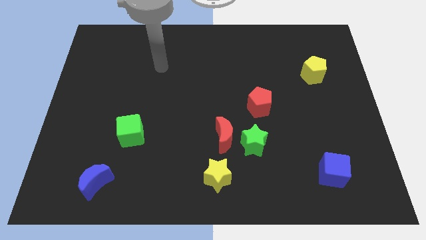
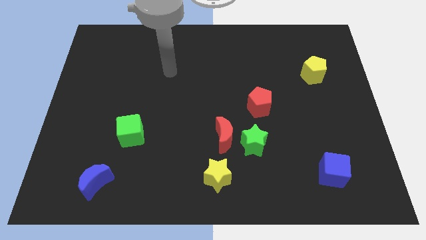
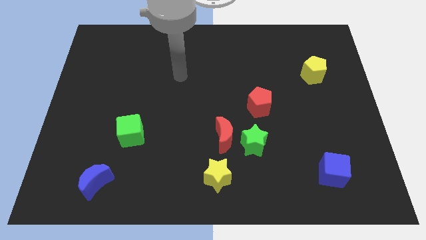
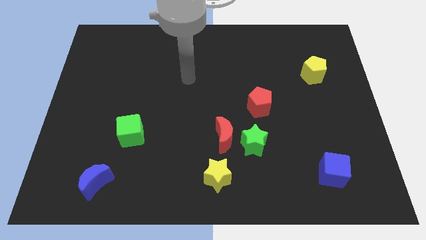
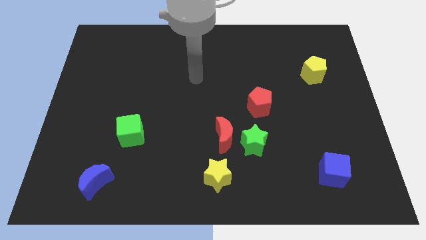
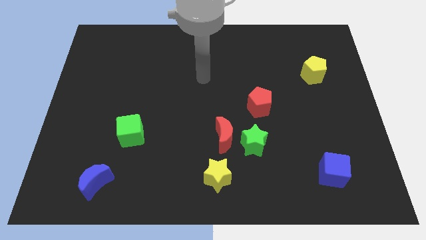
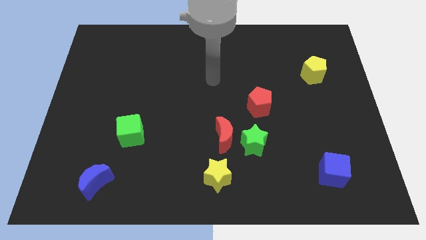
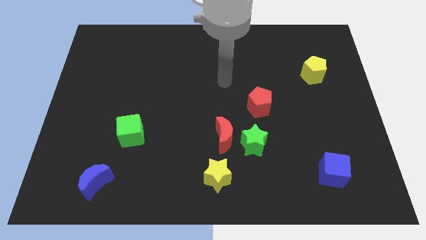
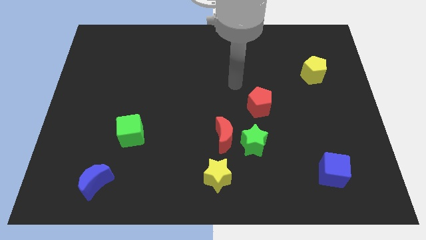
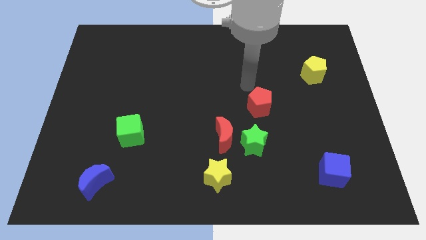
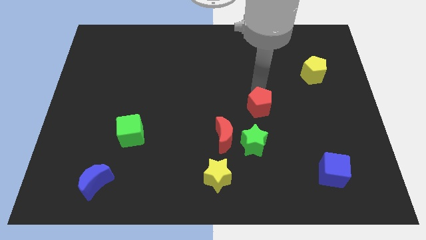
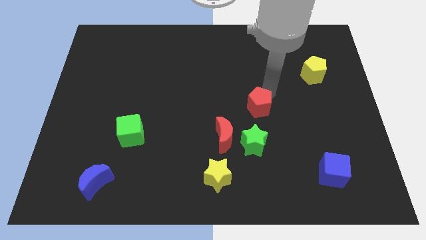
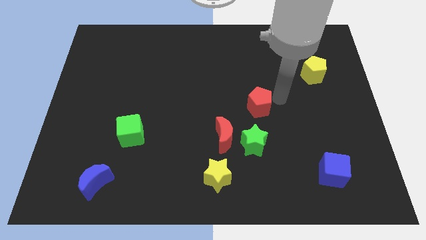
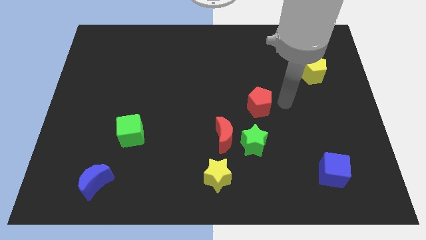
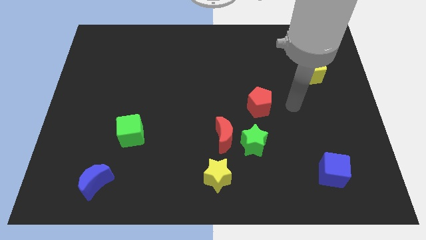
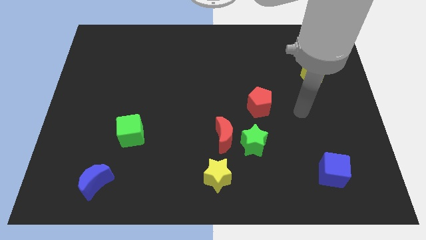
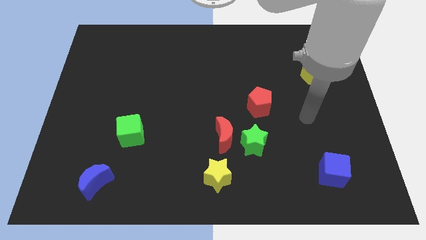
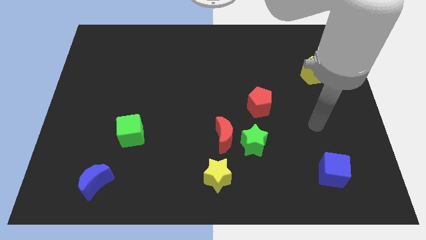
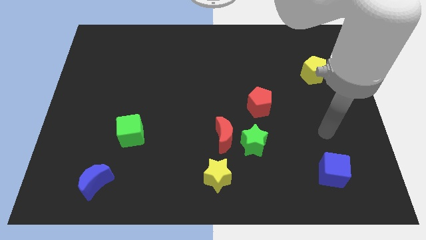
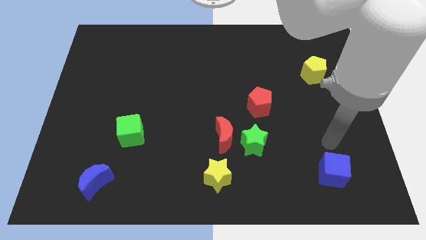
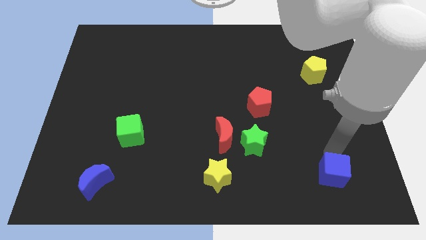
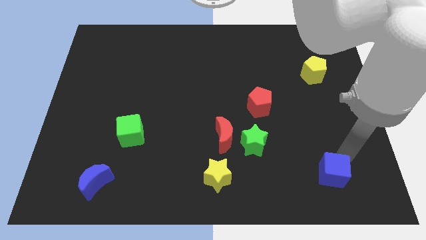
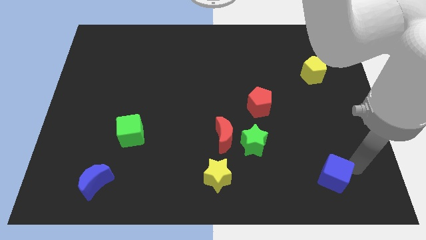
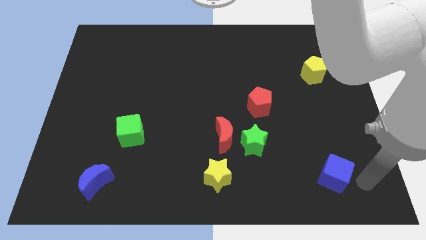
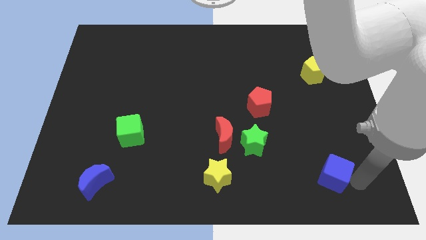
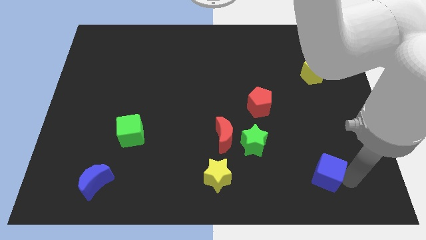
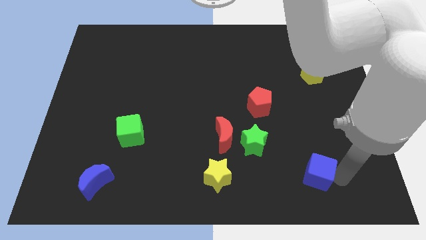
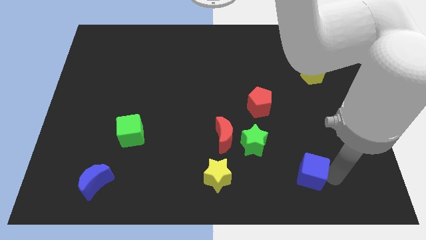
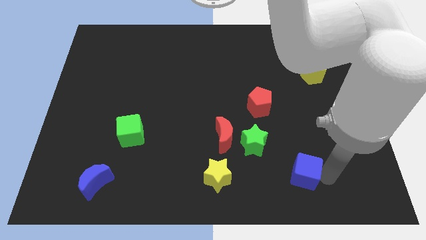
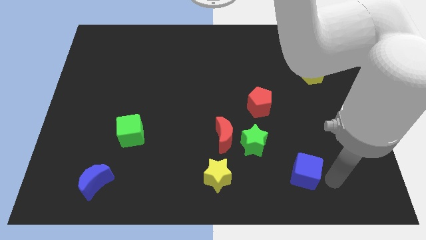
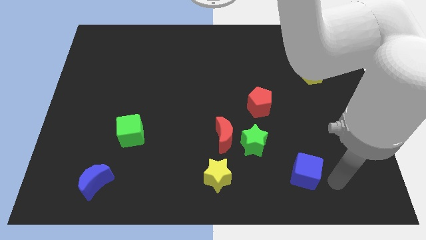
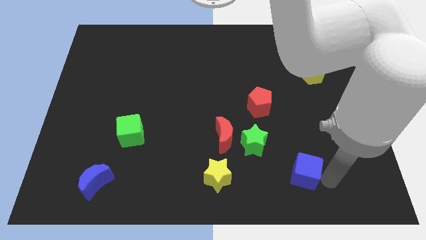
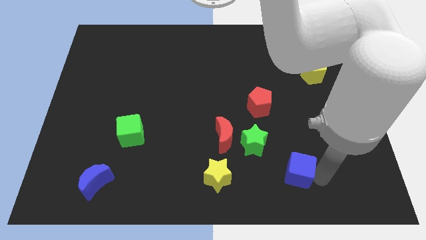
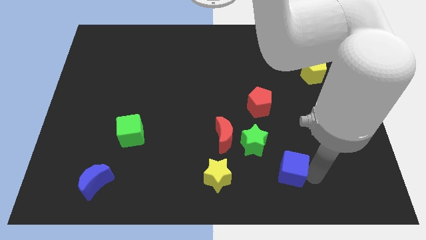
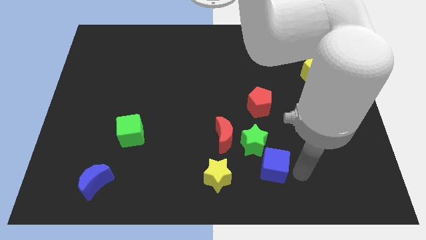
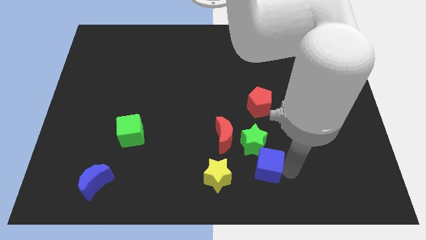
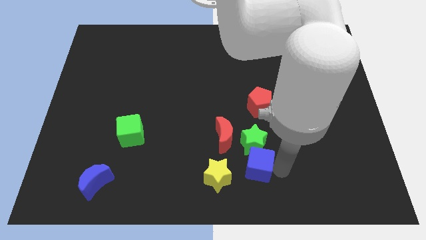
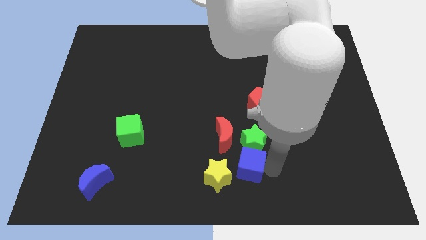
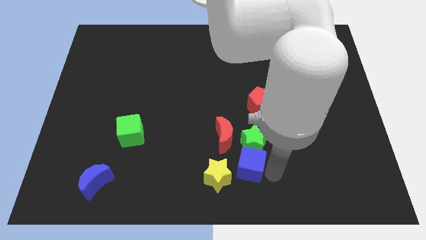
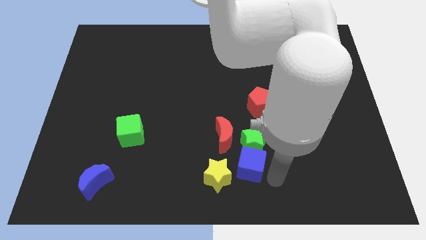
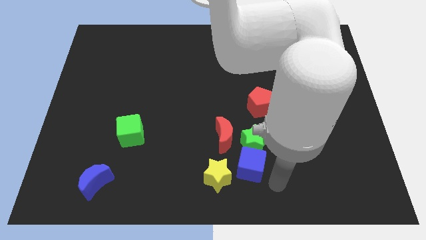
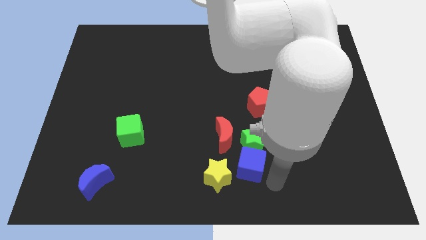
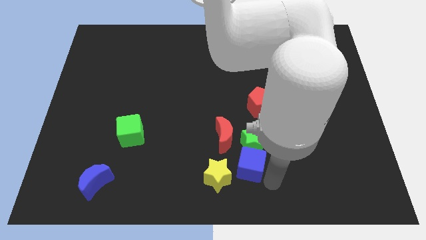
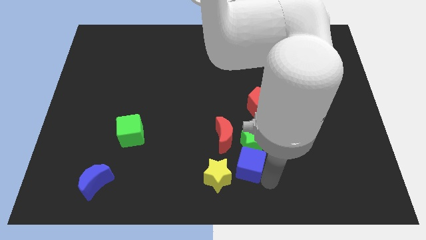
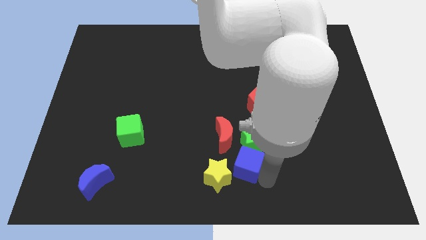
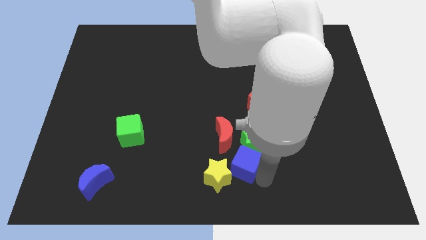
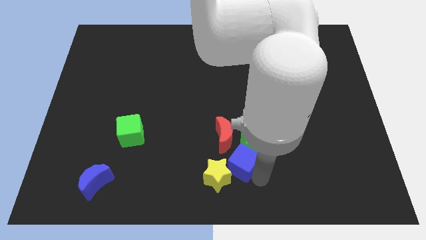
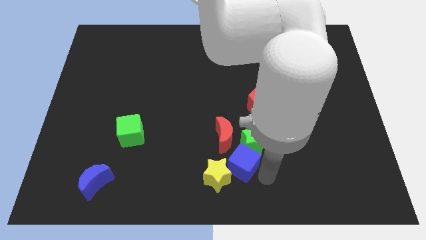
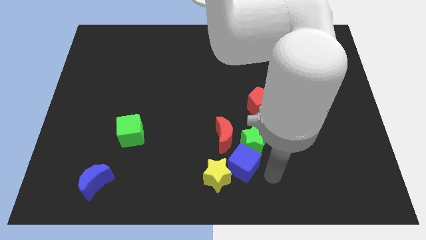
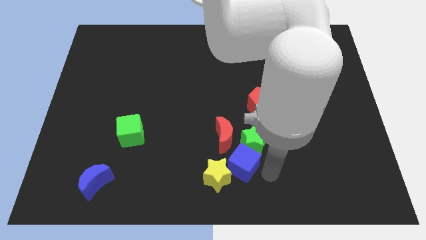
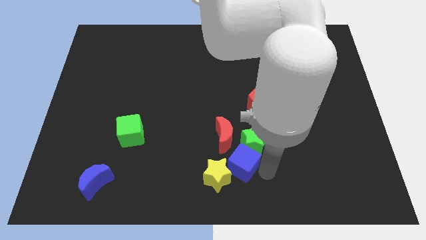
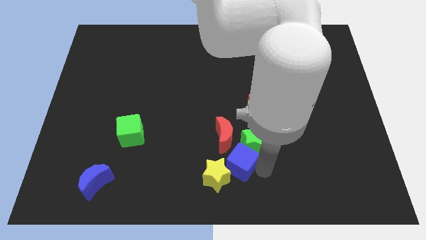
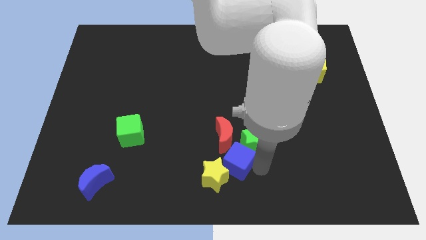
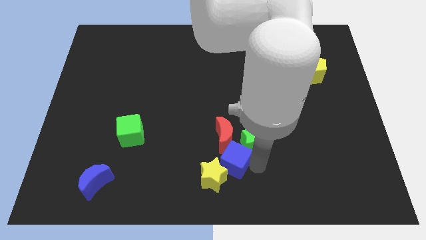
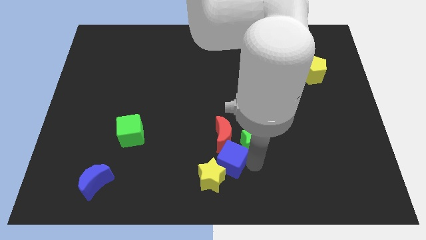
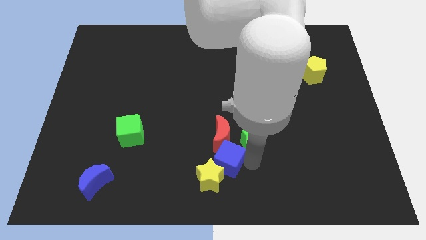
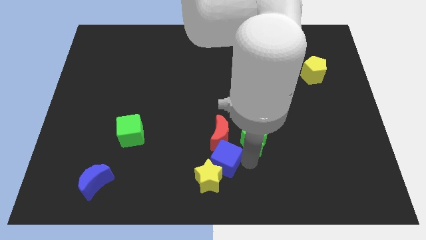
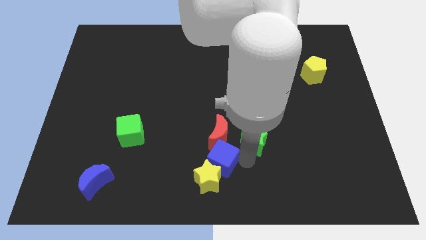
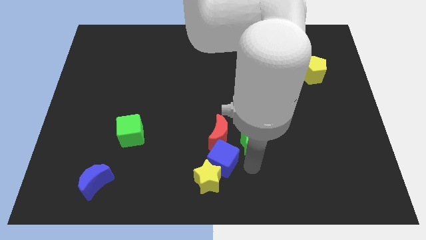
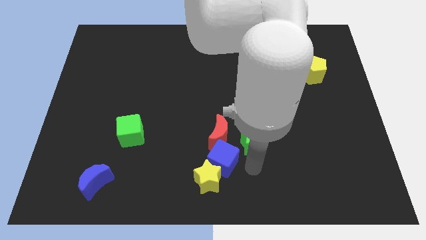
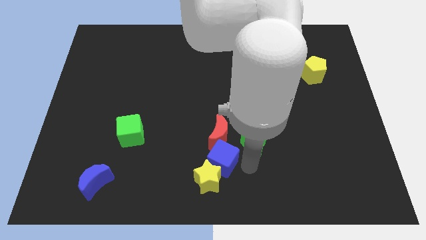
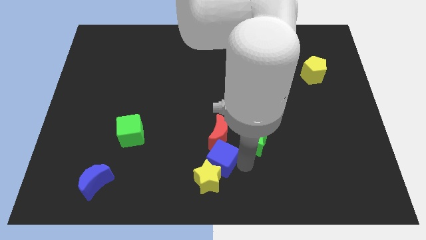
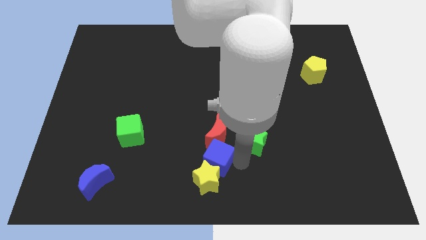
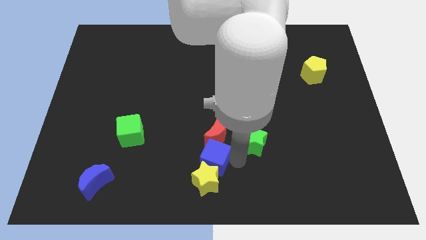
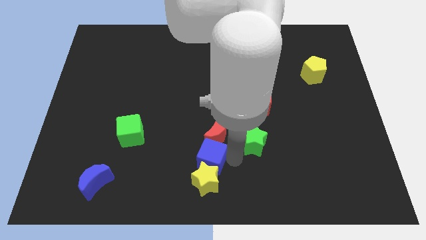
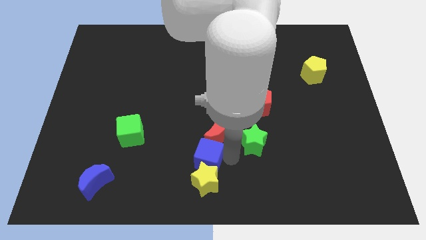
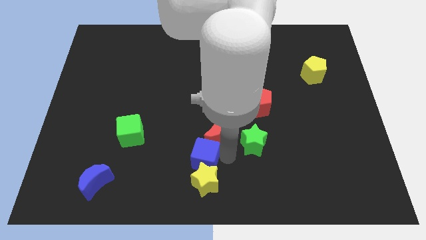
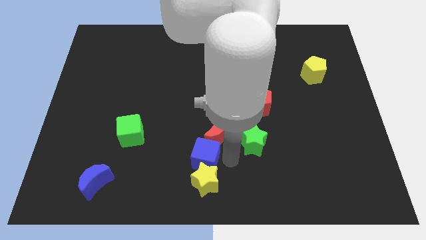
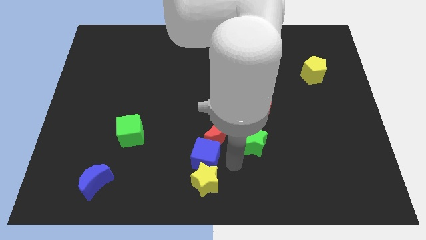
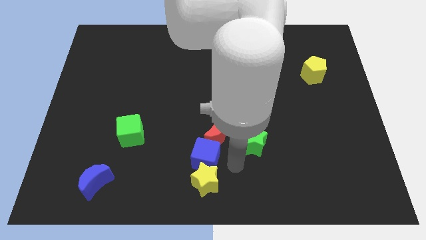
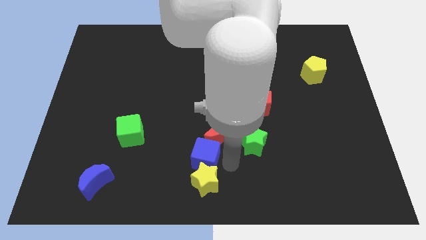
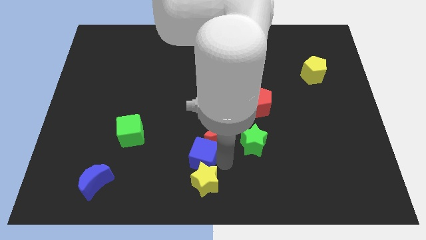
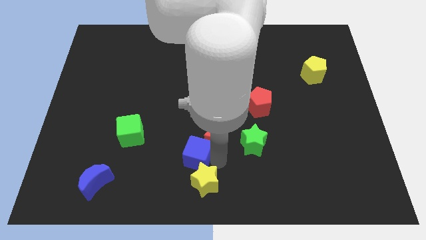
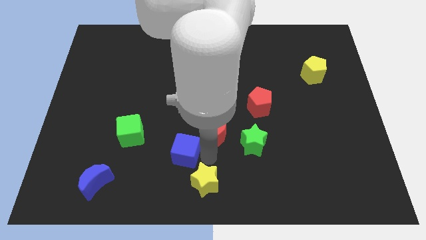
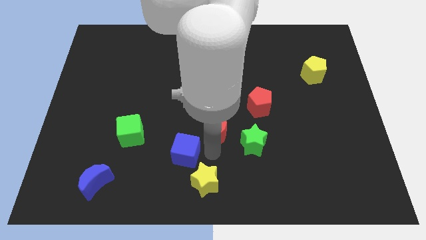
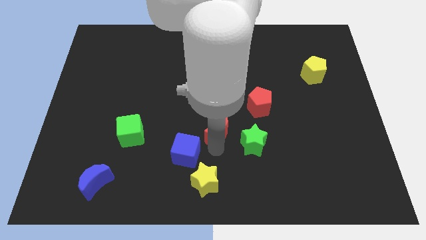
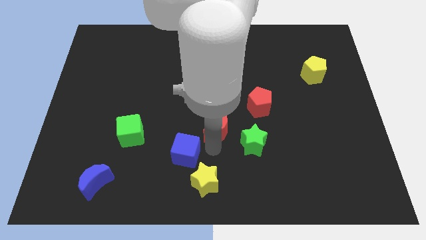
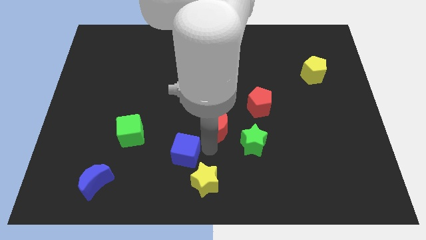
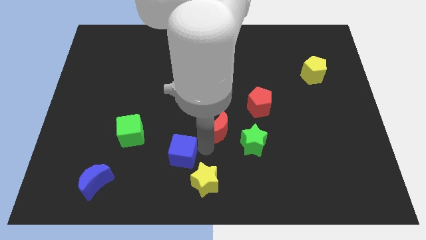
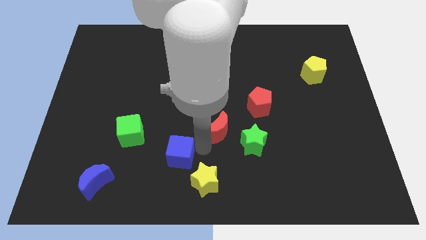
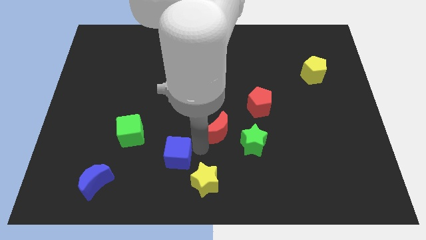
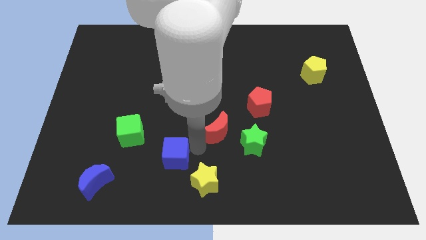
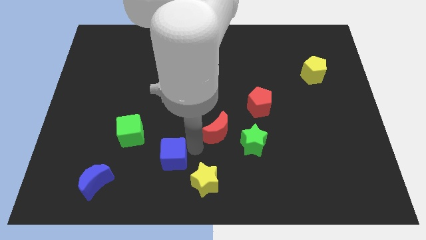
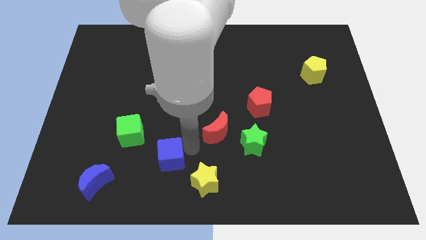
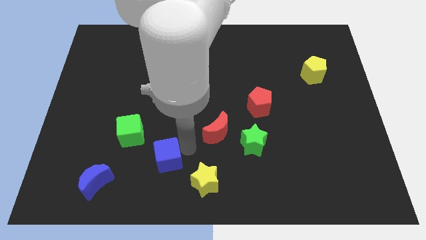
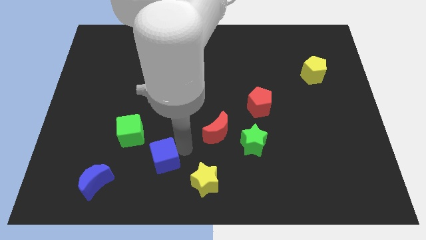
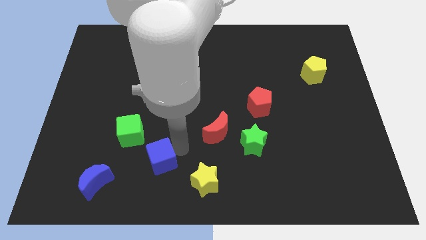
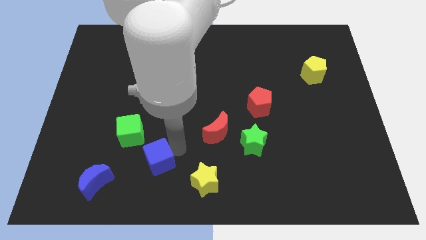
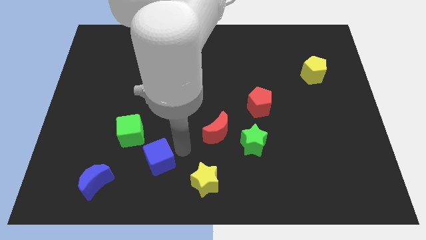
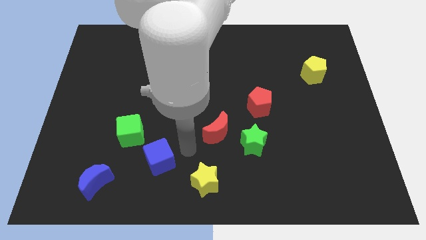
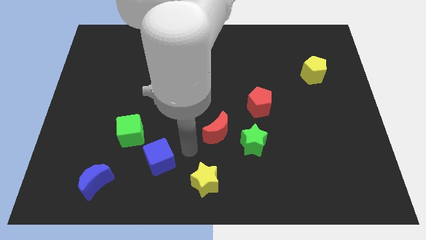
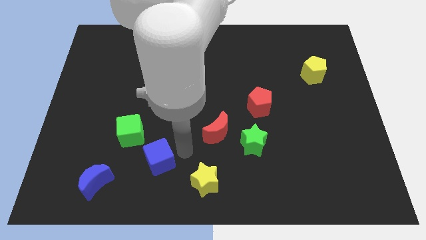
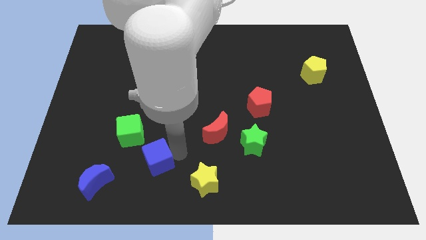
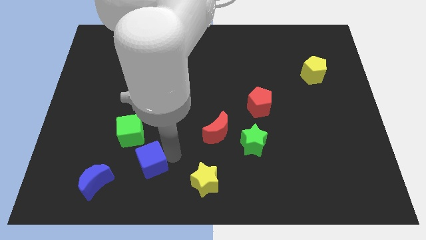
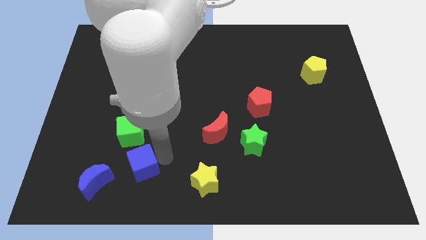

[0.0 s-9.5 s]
move the blue cube to the bottom side of the green cube
